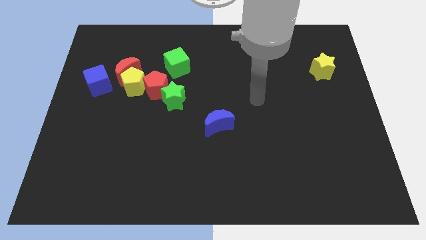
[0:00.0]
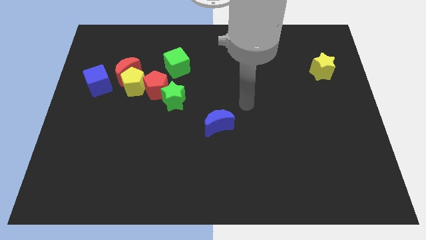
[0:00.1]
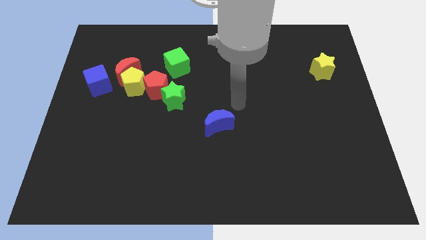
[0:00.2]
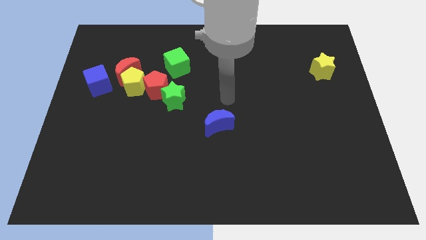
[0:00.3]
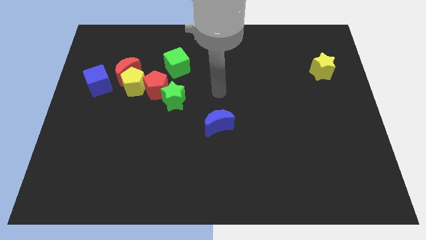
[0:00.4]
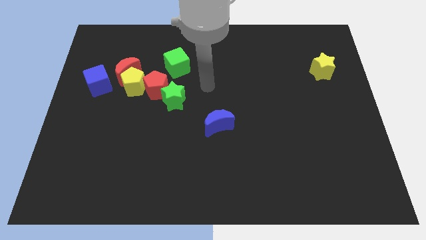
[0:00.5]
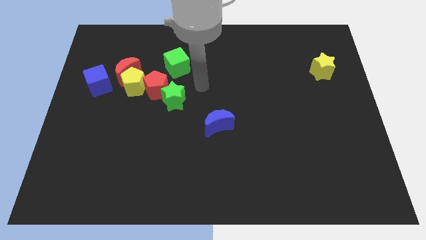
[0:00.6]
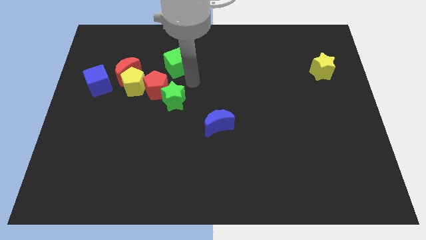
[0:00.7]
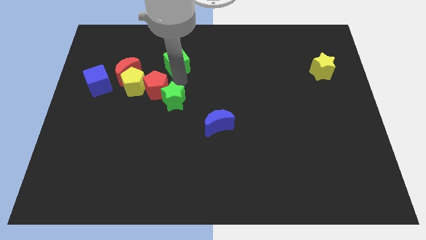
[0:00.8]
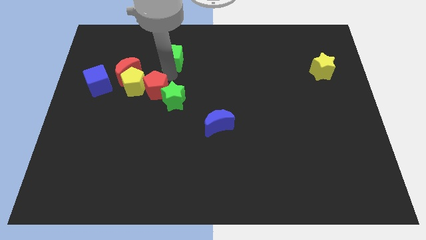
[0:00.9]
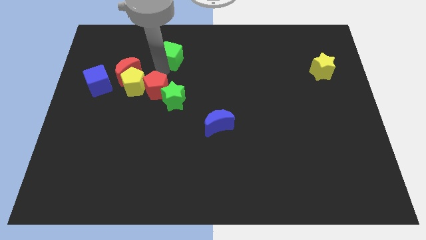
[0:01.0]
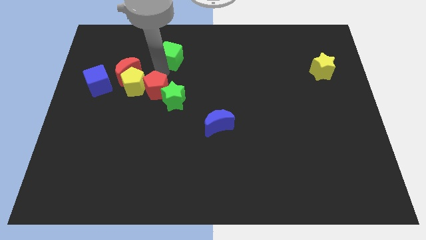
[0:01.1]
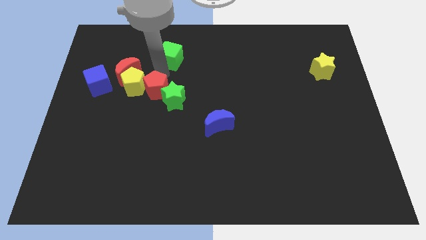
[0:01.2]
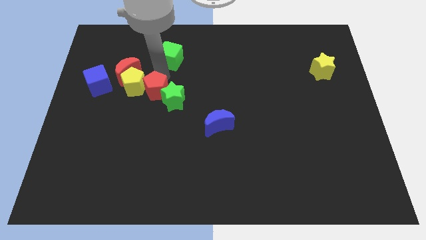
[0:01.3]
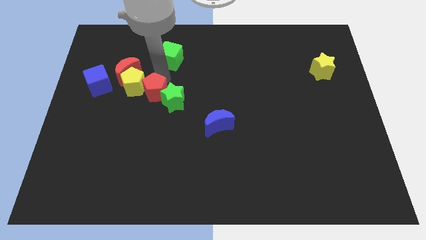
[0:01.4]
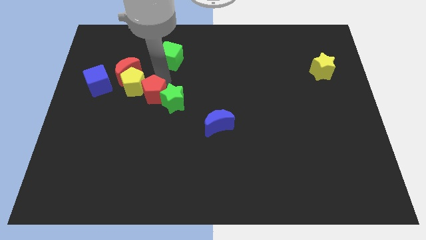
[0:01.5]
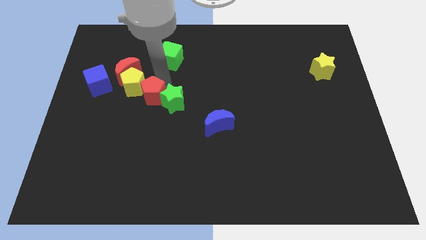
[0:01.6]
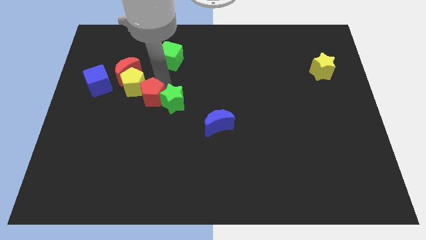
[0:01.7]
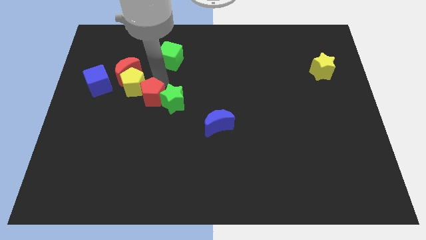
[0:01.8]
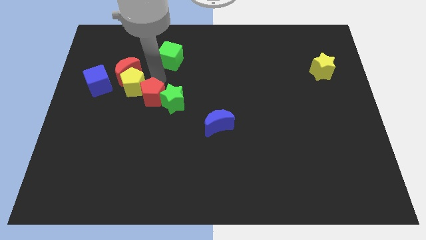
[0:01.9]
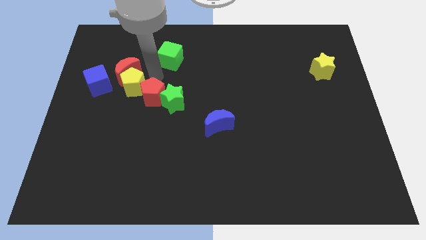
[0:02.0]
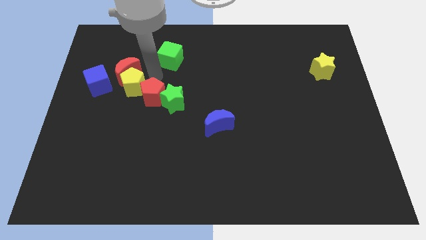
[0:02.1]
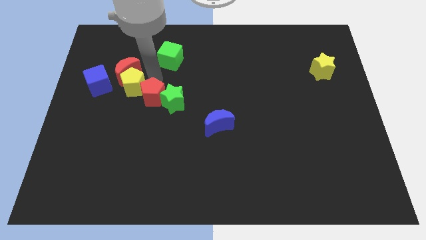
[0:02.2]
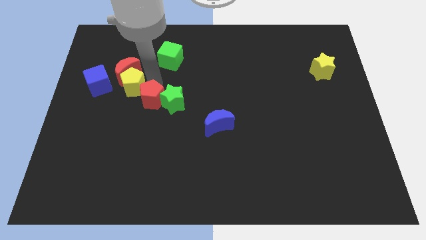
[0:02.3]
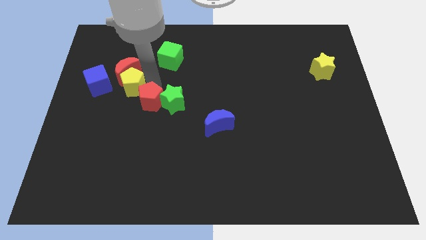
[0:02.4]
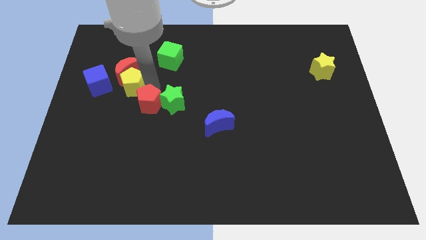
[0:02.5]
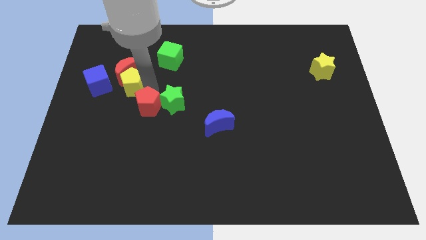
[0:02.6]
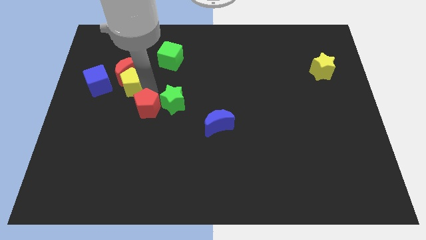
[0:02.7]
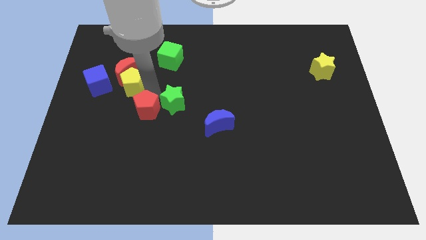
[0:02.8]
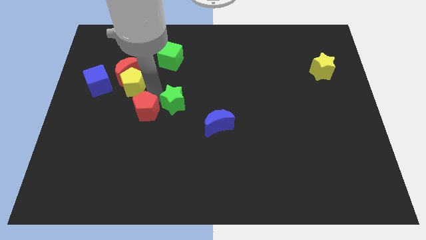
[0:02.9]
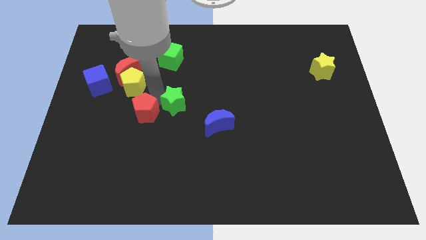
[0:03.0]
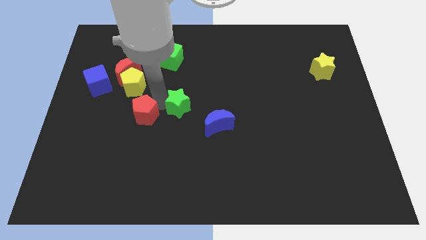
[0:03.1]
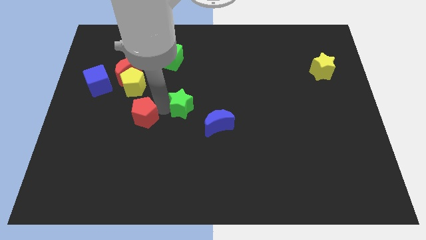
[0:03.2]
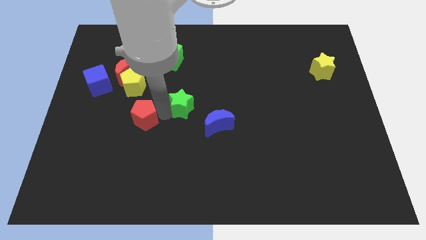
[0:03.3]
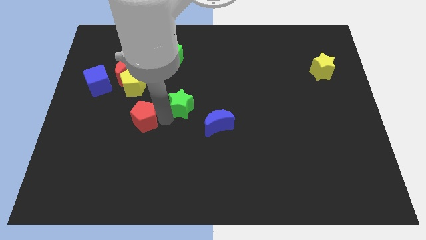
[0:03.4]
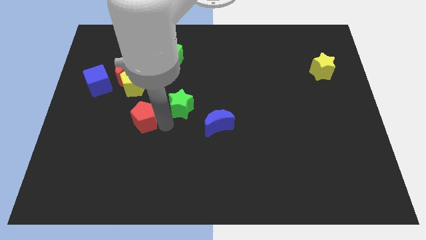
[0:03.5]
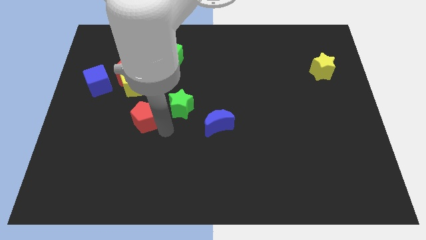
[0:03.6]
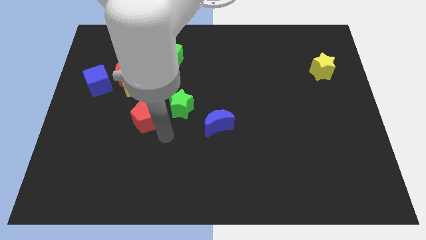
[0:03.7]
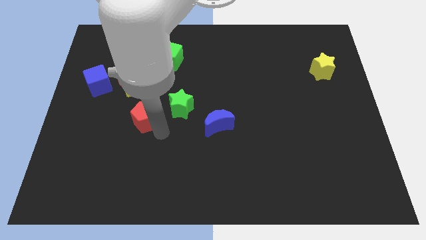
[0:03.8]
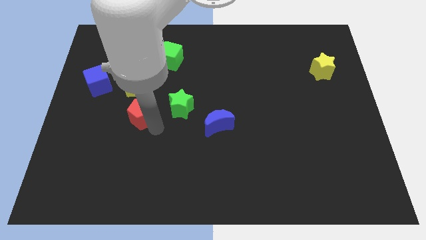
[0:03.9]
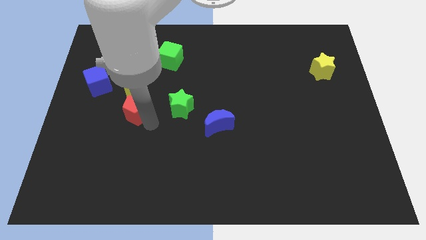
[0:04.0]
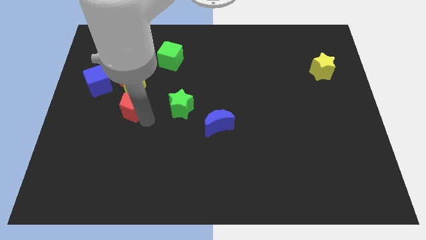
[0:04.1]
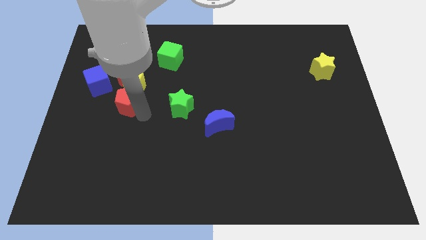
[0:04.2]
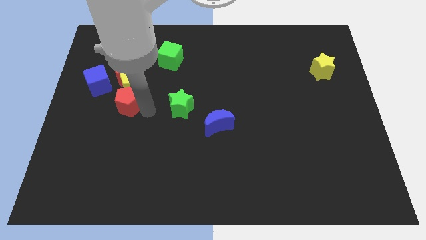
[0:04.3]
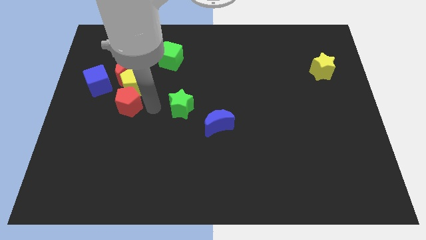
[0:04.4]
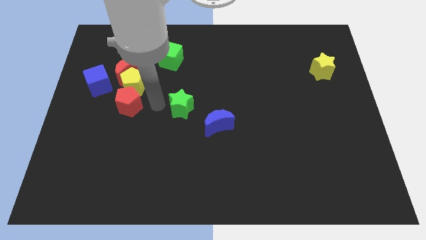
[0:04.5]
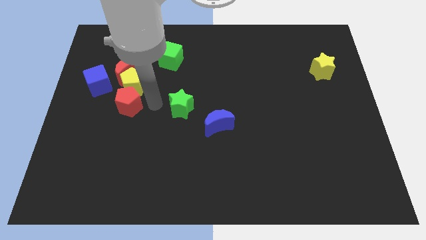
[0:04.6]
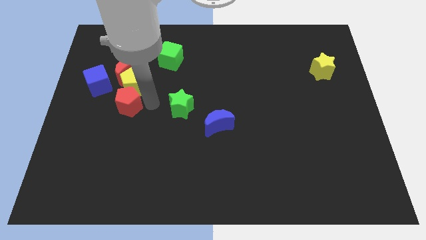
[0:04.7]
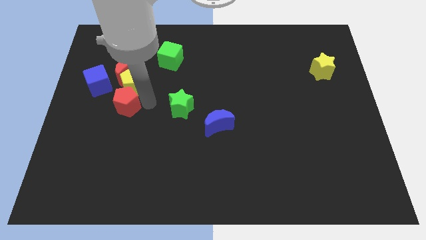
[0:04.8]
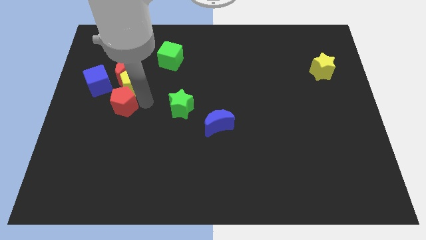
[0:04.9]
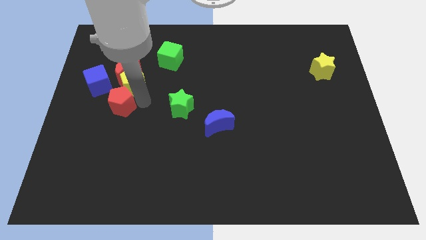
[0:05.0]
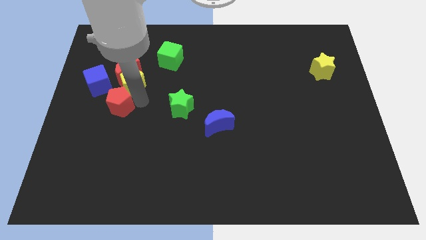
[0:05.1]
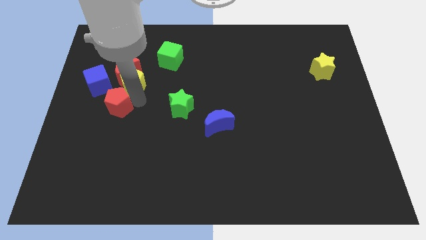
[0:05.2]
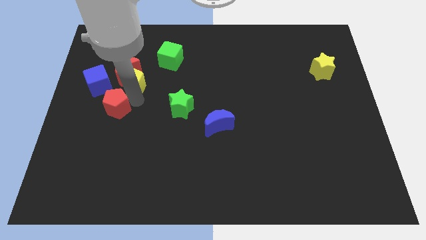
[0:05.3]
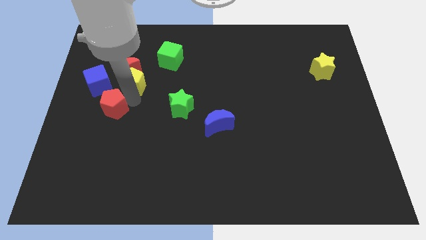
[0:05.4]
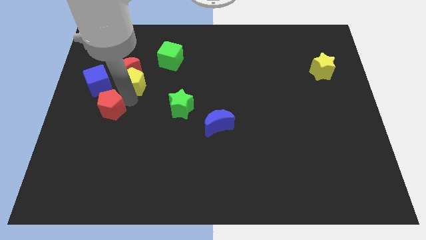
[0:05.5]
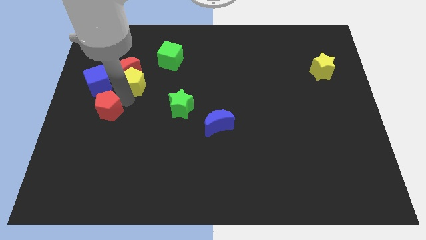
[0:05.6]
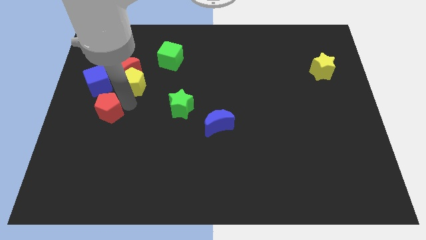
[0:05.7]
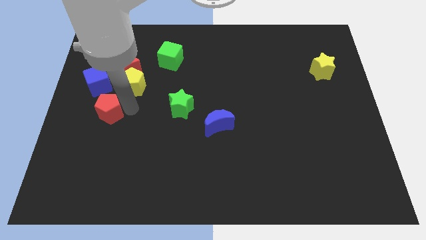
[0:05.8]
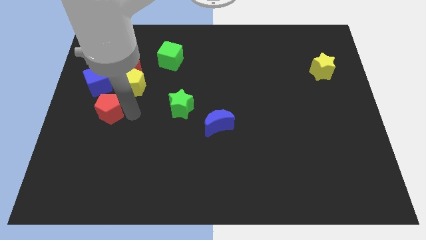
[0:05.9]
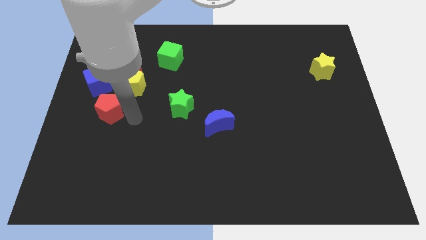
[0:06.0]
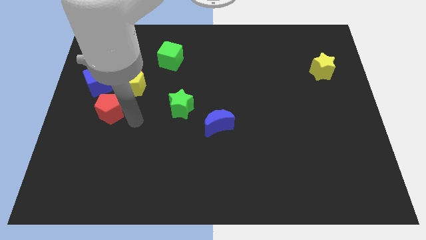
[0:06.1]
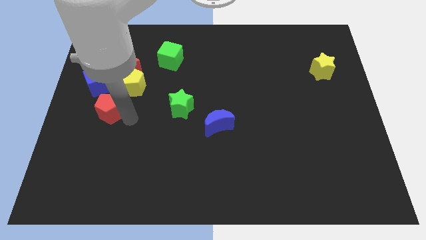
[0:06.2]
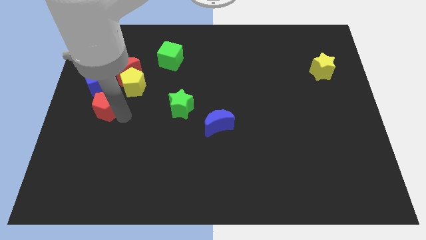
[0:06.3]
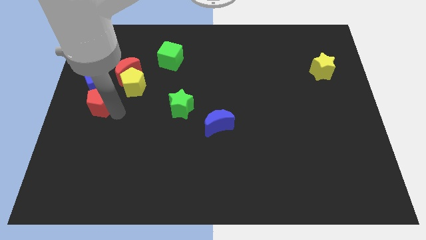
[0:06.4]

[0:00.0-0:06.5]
move the red pentagon to the left side of the board
